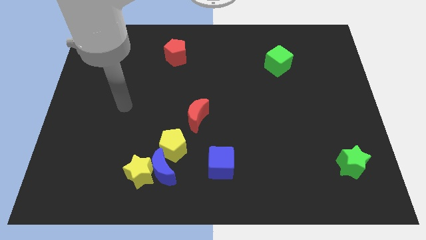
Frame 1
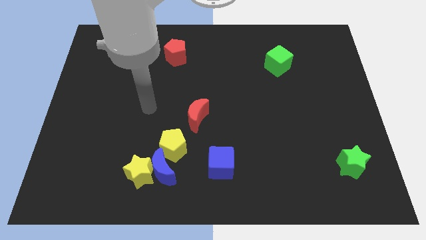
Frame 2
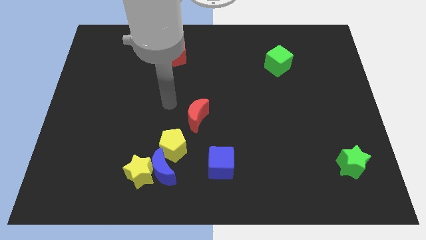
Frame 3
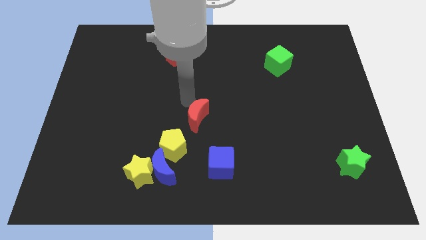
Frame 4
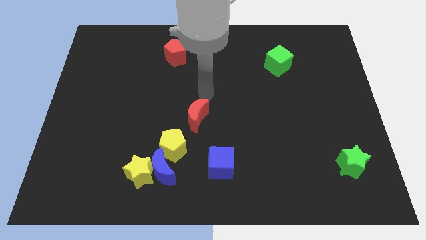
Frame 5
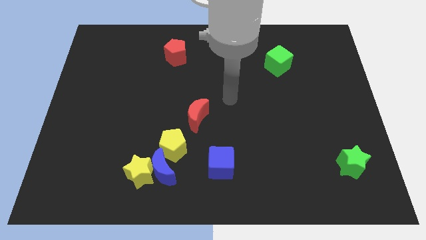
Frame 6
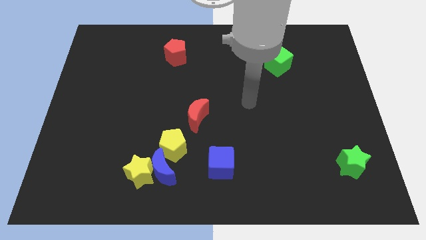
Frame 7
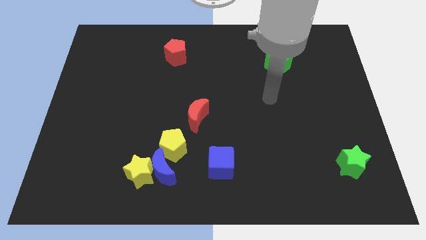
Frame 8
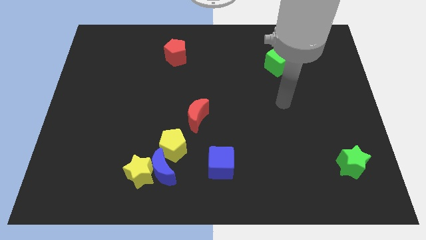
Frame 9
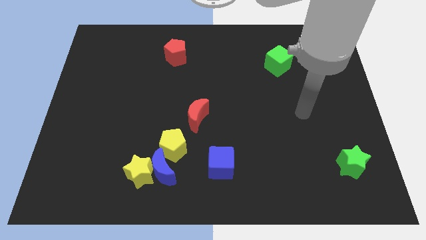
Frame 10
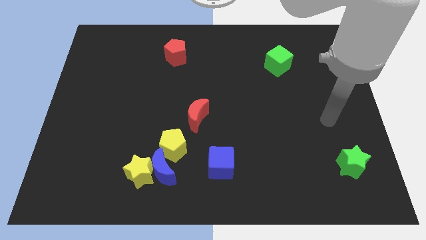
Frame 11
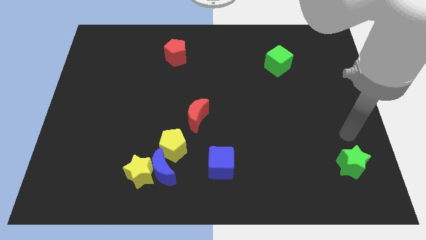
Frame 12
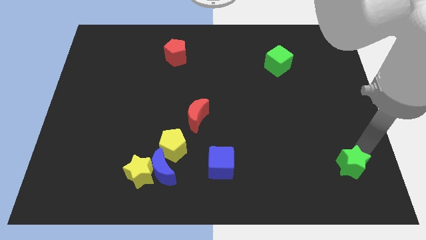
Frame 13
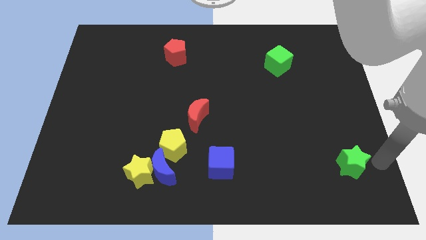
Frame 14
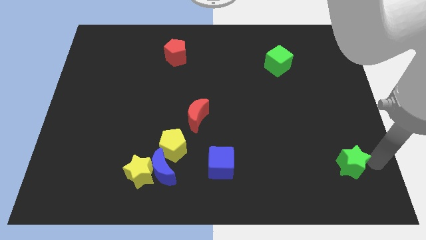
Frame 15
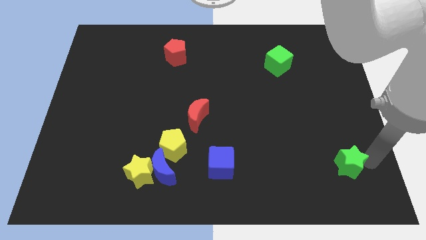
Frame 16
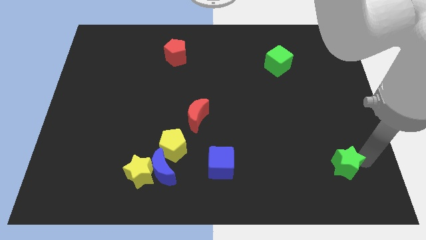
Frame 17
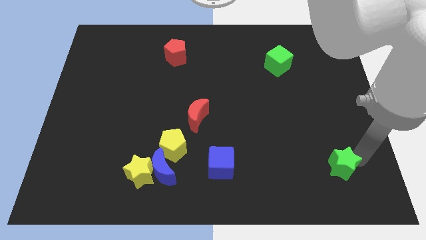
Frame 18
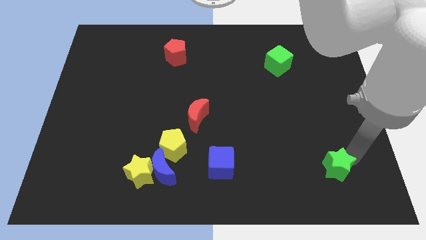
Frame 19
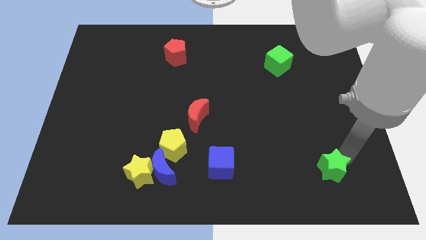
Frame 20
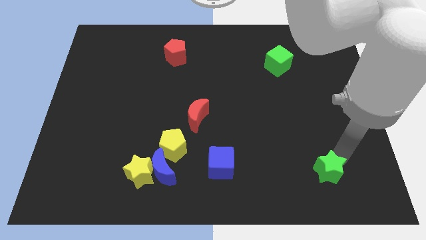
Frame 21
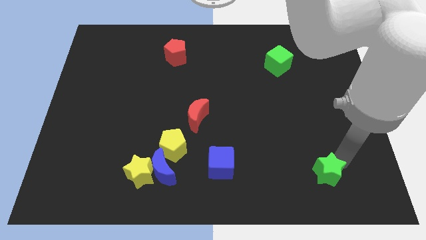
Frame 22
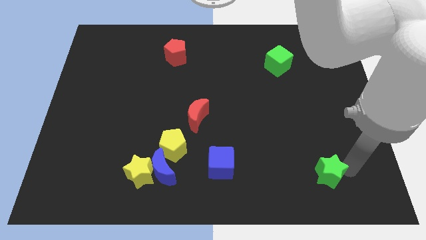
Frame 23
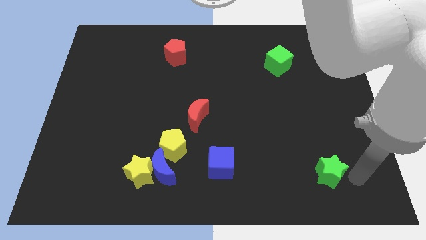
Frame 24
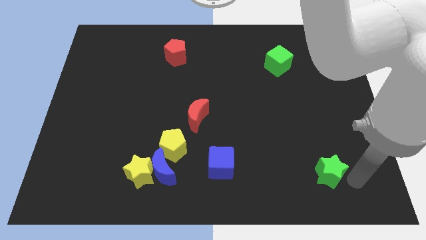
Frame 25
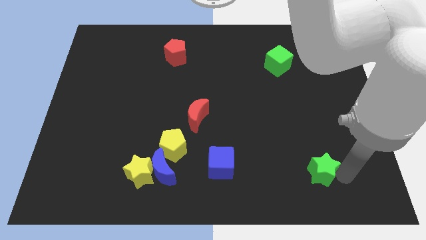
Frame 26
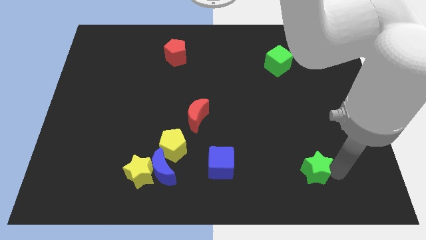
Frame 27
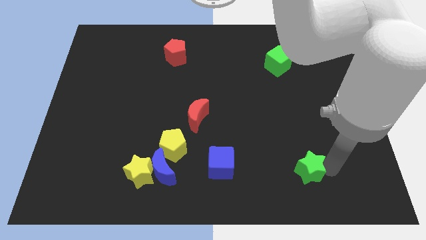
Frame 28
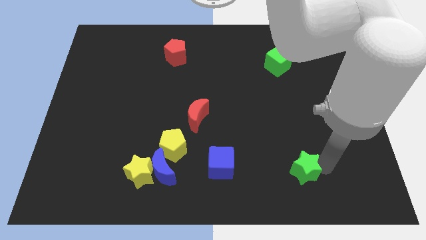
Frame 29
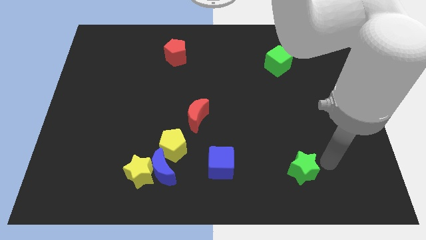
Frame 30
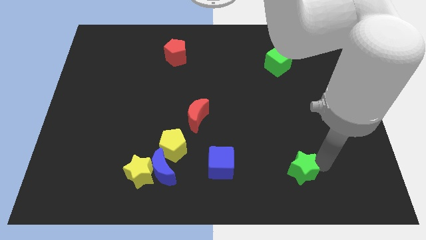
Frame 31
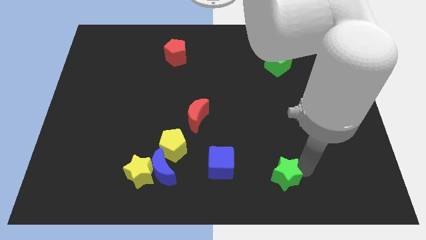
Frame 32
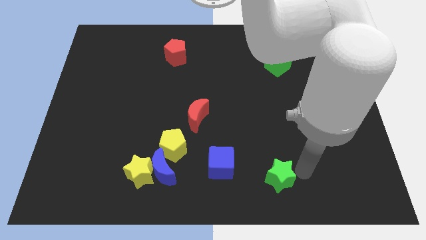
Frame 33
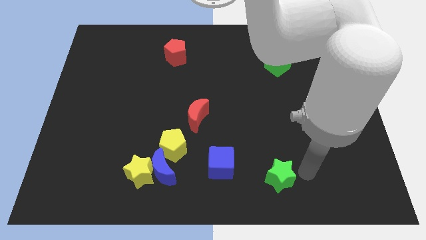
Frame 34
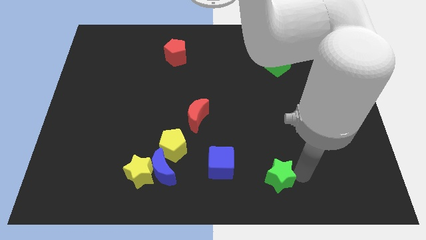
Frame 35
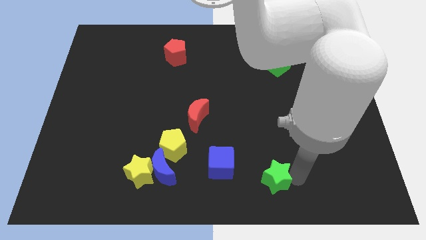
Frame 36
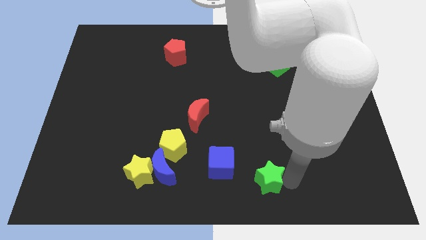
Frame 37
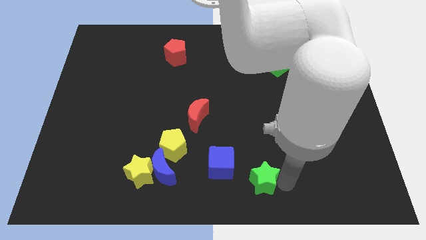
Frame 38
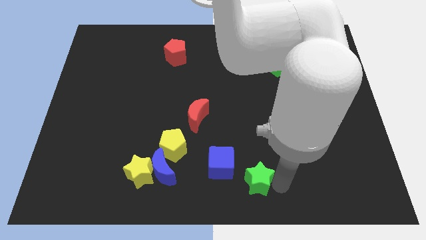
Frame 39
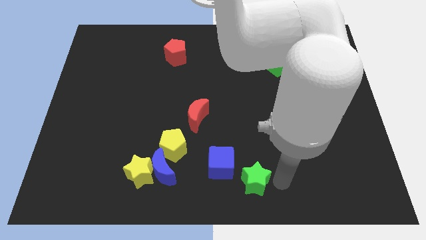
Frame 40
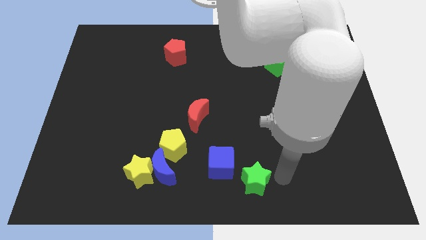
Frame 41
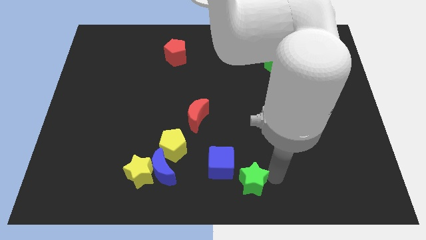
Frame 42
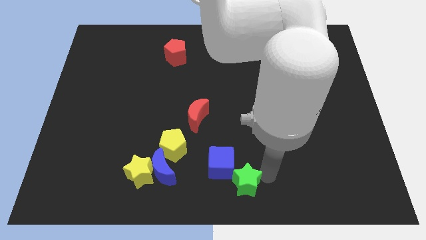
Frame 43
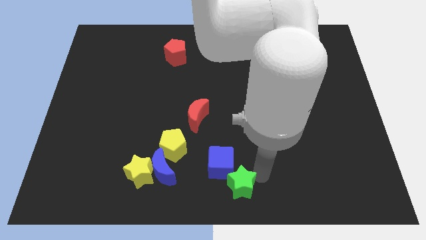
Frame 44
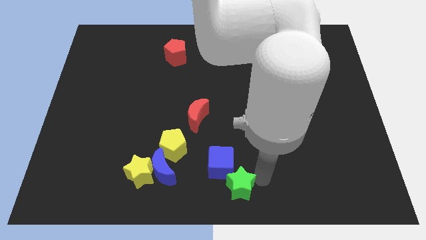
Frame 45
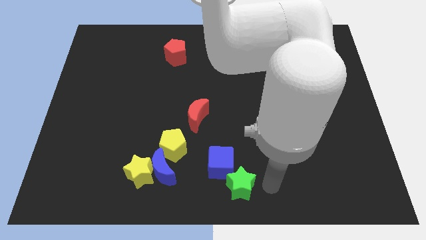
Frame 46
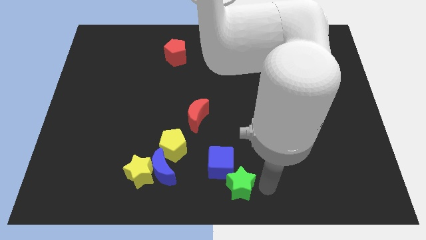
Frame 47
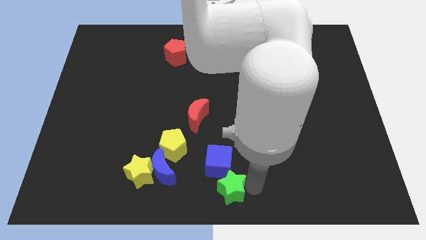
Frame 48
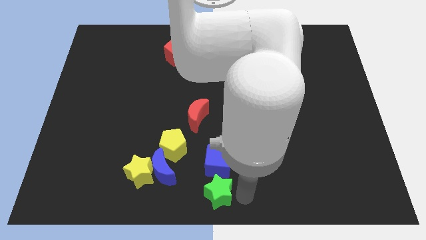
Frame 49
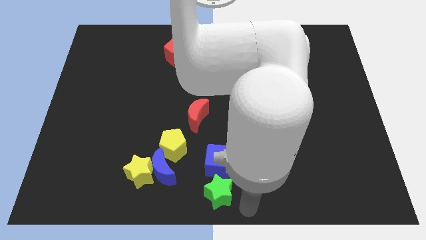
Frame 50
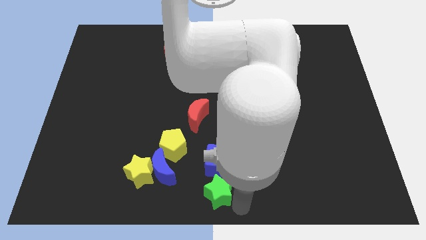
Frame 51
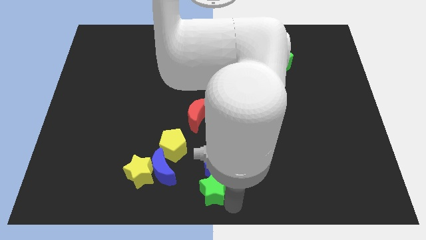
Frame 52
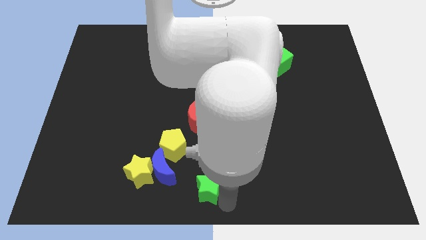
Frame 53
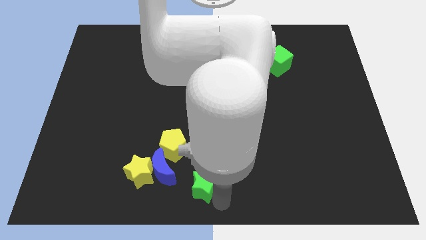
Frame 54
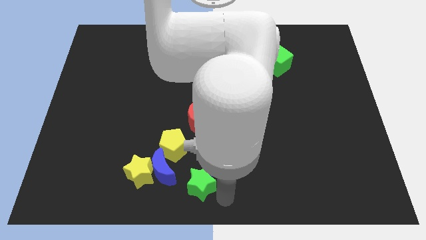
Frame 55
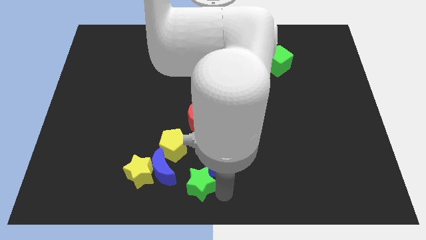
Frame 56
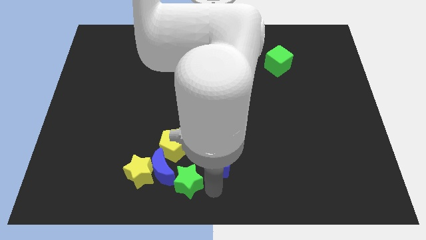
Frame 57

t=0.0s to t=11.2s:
push the green star next to the blue moon

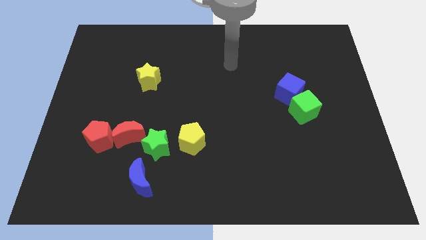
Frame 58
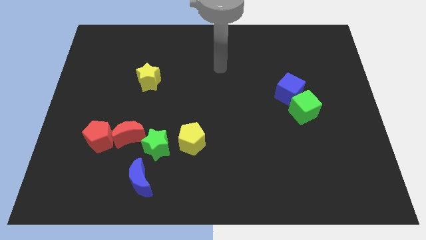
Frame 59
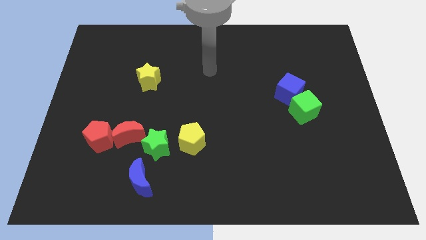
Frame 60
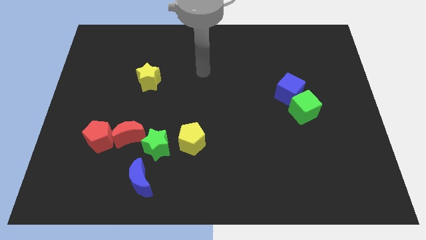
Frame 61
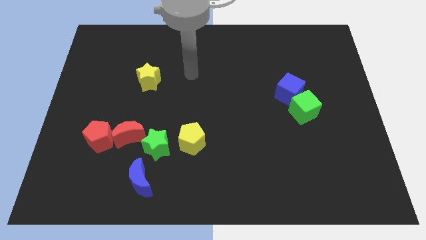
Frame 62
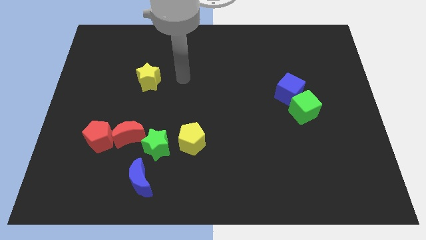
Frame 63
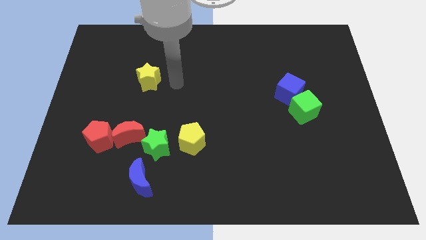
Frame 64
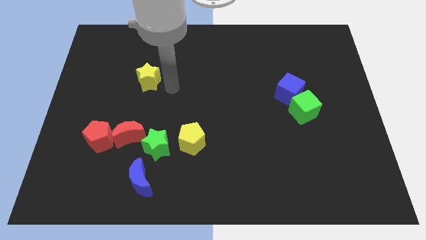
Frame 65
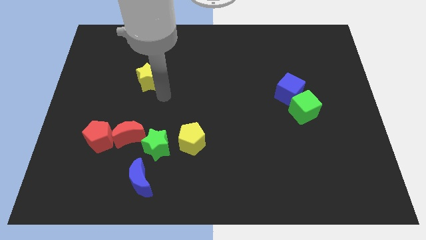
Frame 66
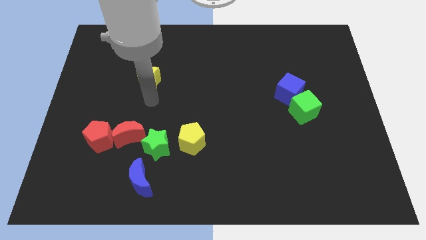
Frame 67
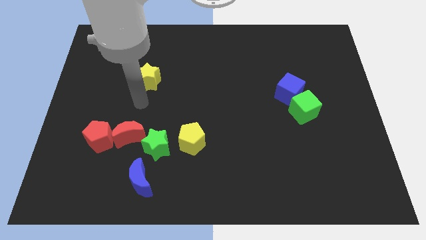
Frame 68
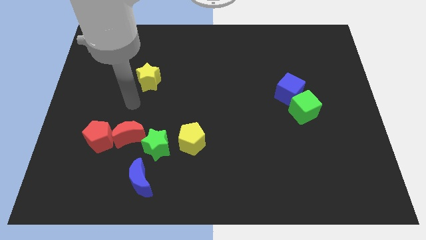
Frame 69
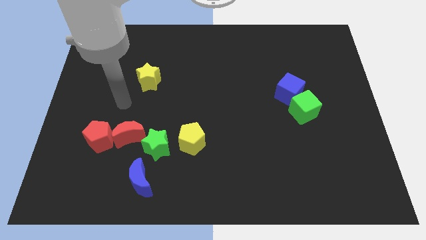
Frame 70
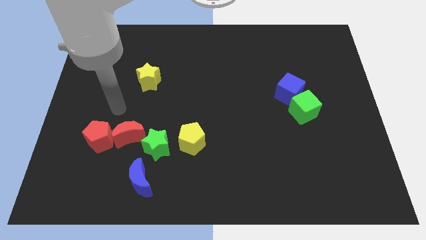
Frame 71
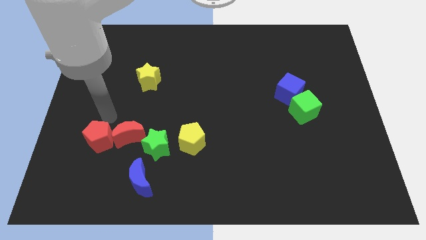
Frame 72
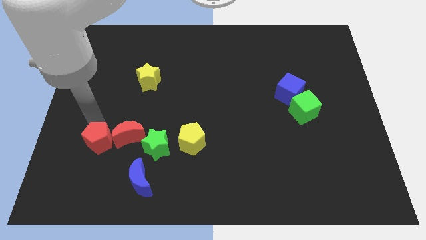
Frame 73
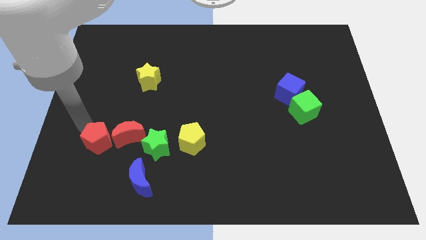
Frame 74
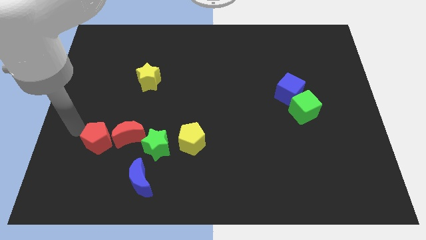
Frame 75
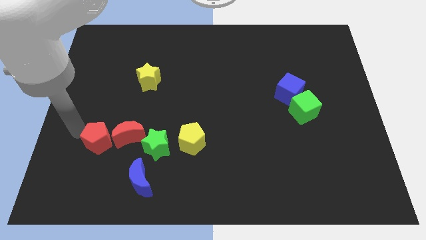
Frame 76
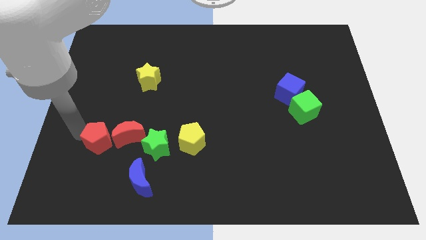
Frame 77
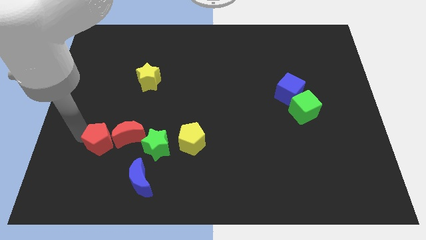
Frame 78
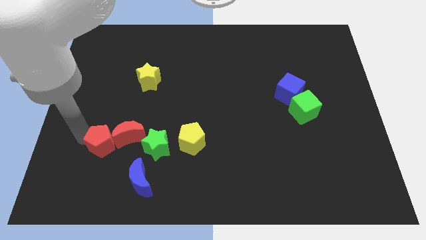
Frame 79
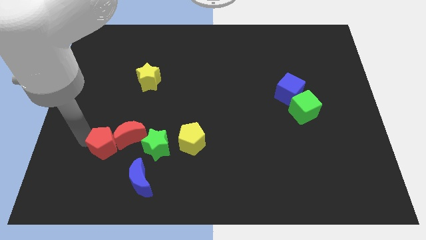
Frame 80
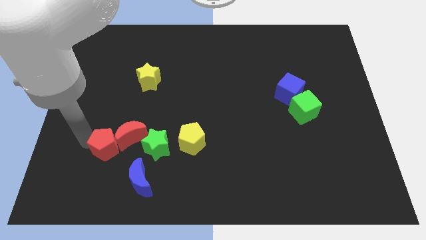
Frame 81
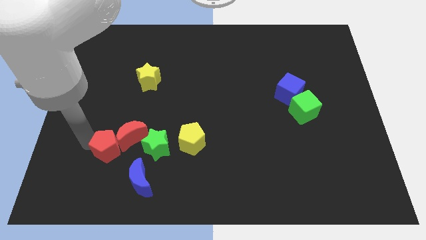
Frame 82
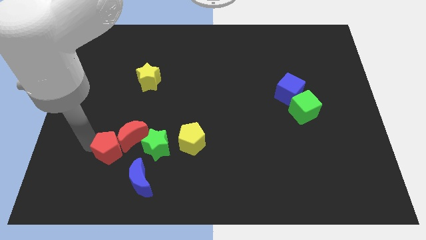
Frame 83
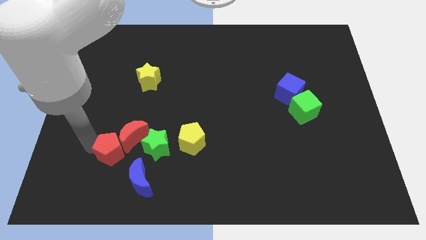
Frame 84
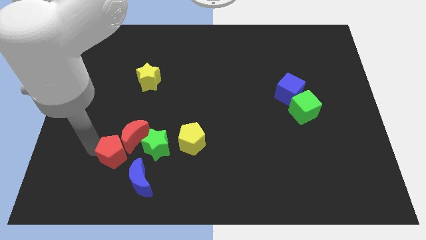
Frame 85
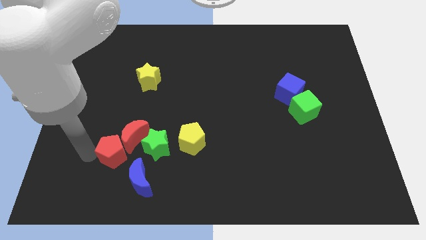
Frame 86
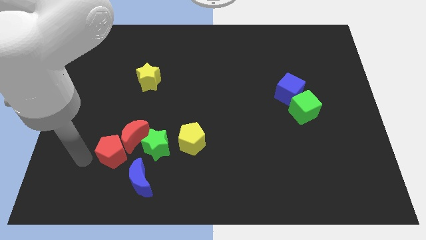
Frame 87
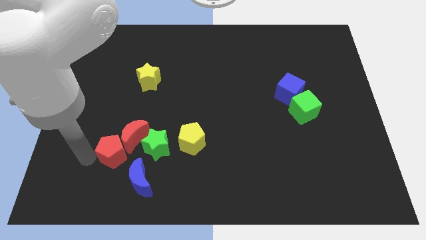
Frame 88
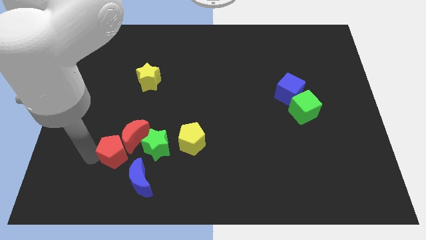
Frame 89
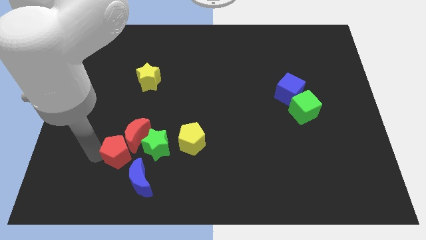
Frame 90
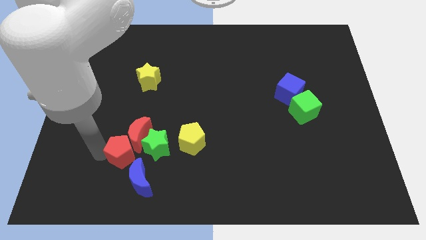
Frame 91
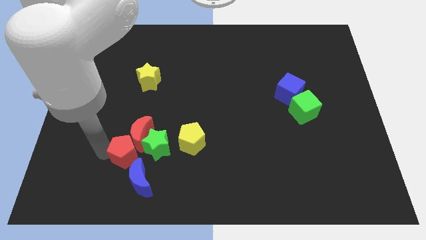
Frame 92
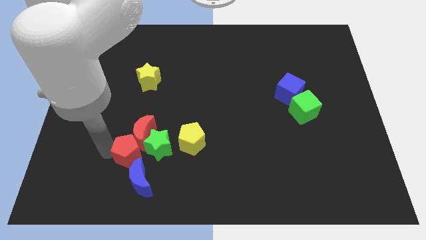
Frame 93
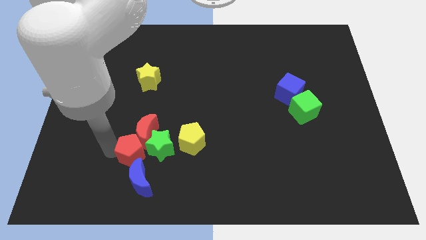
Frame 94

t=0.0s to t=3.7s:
put the red pentagon next to the green star
